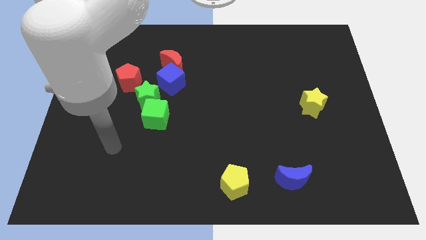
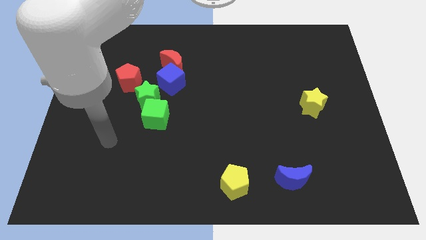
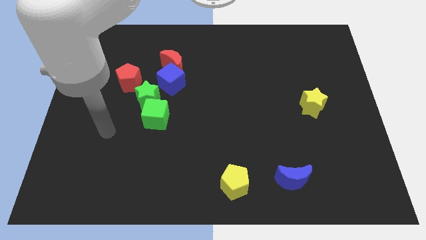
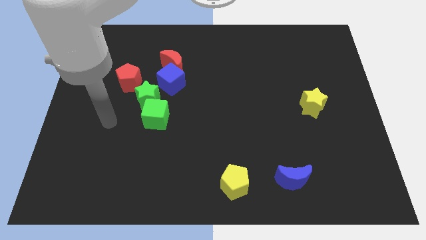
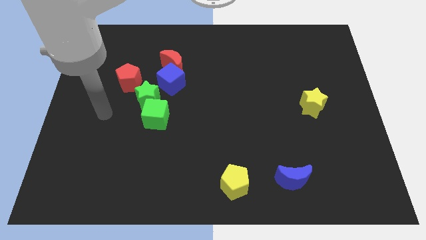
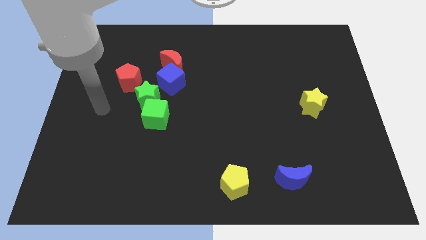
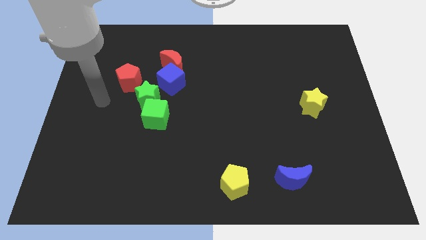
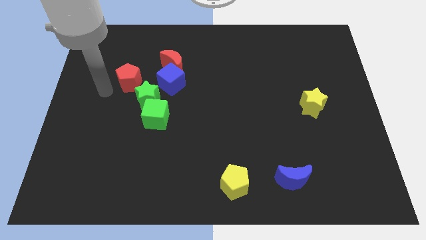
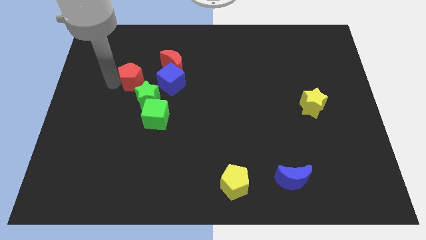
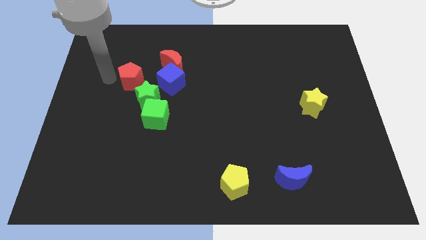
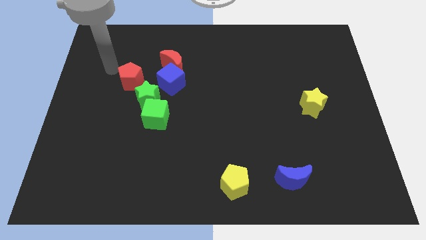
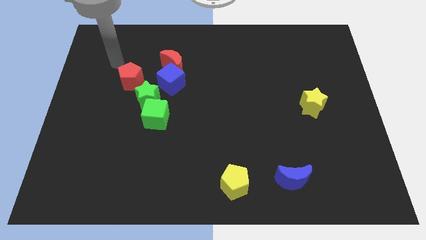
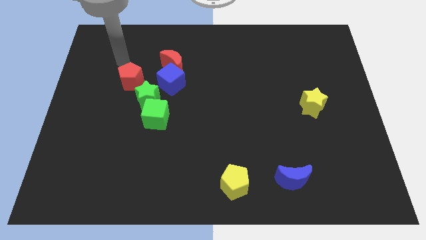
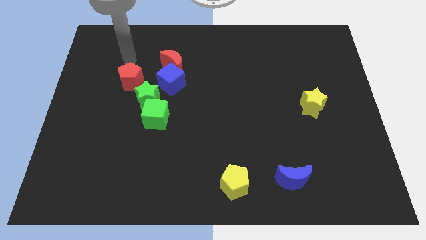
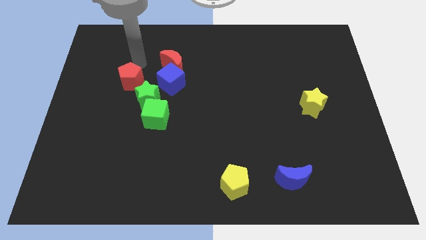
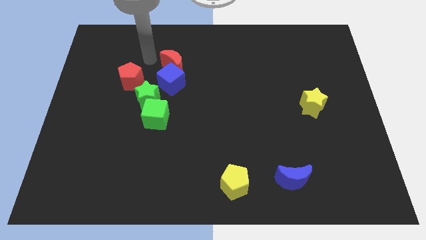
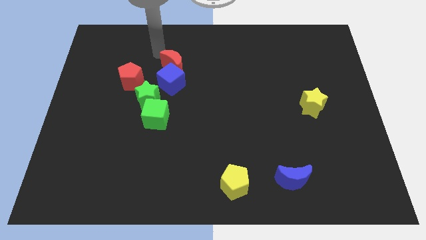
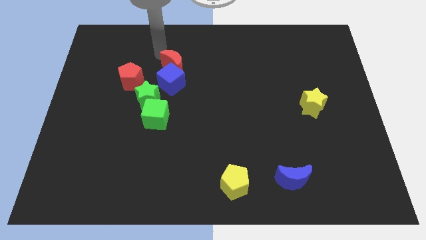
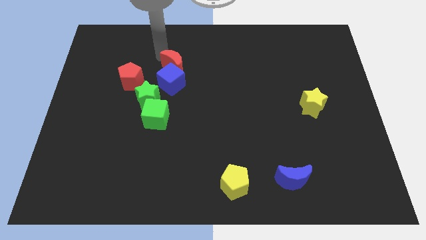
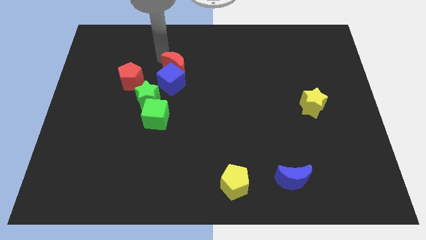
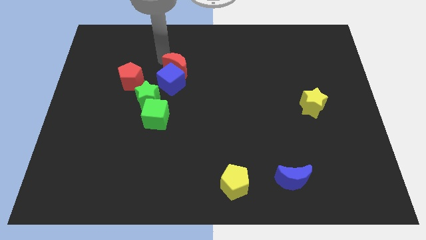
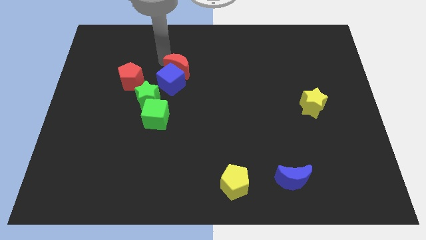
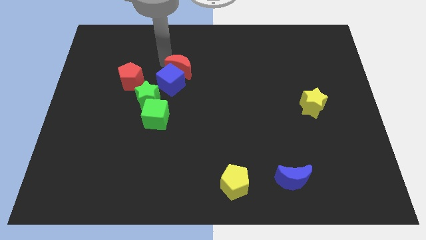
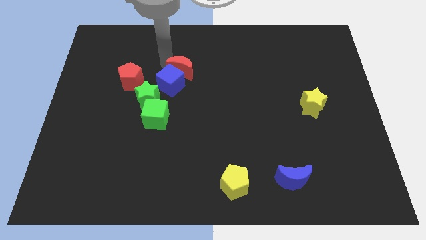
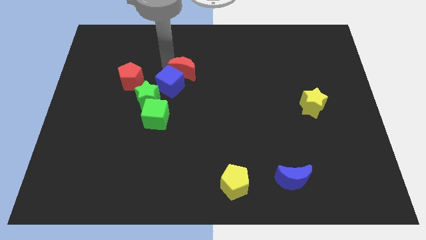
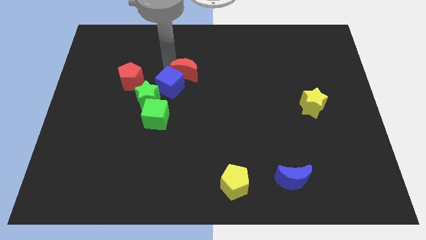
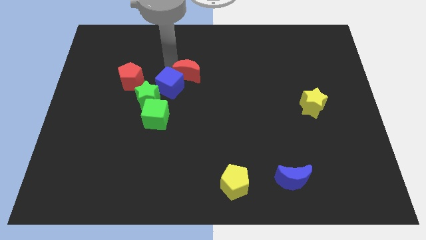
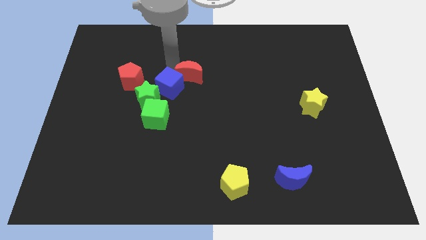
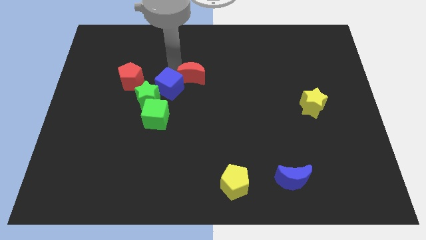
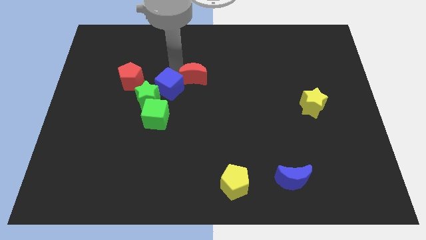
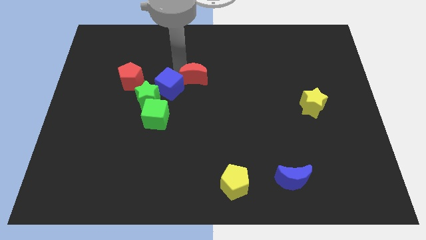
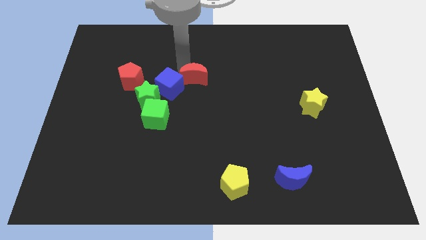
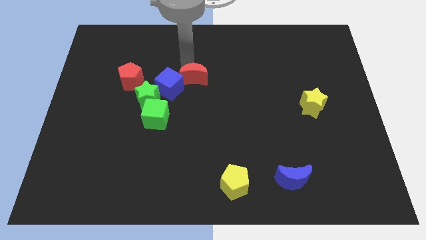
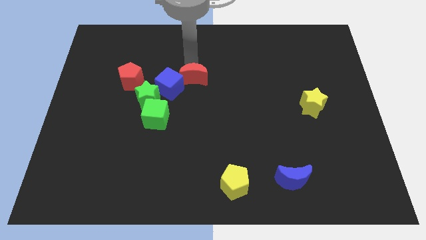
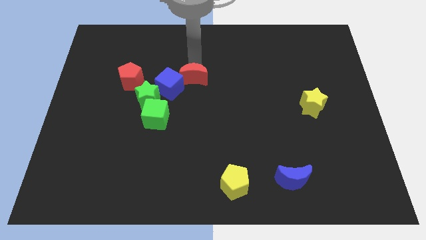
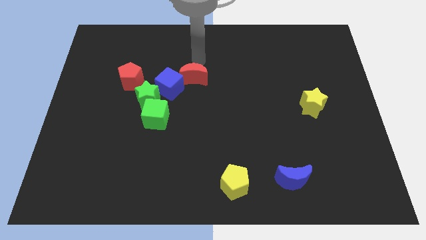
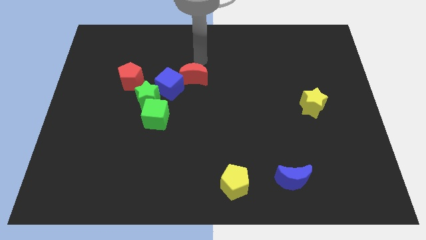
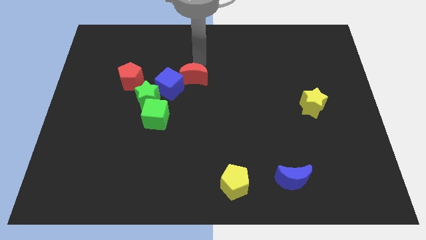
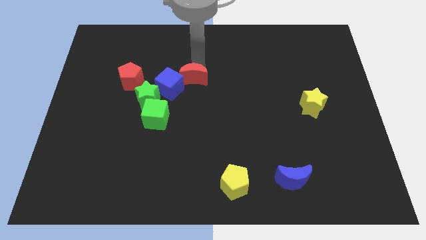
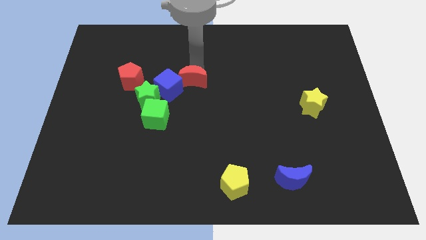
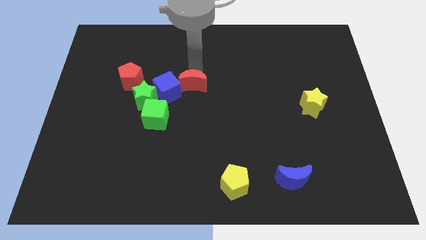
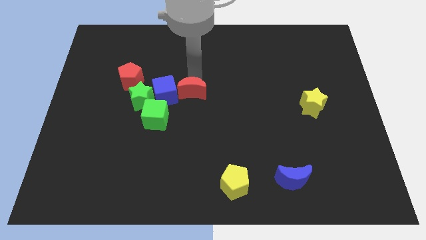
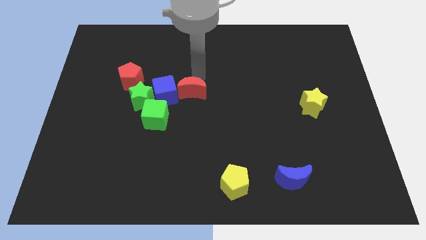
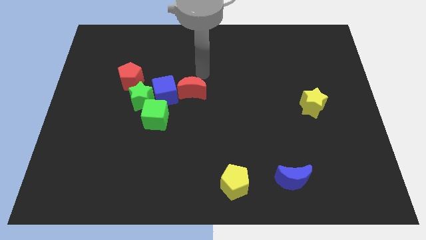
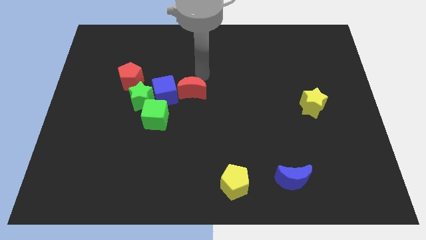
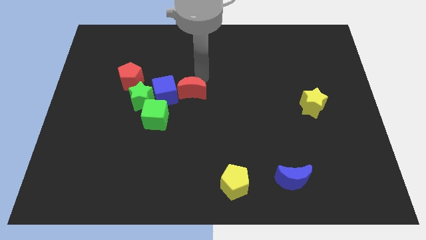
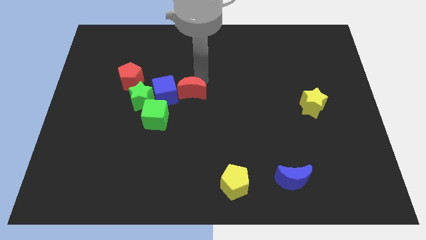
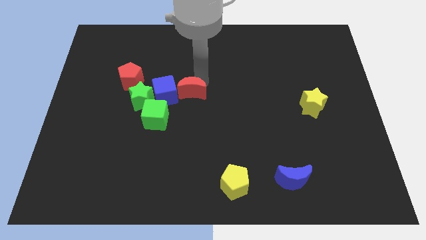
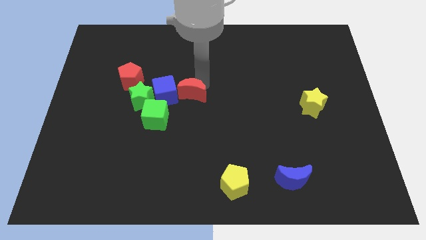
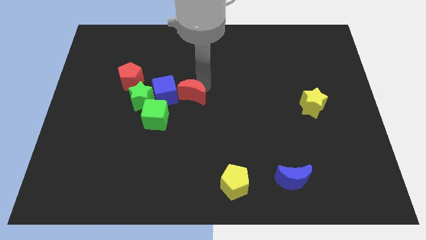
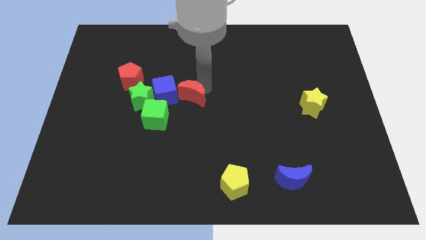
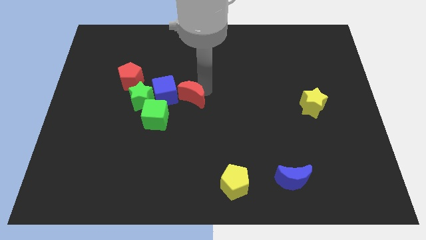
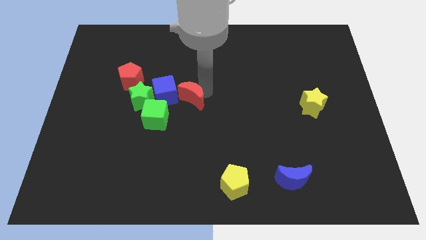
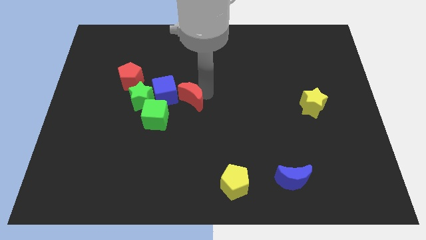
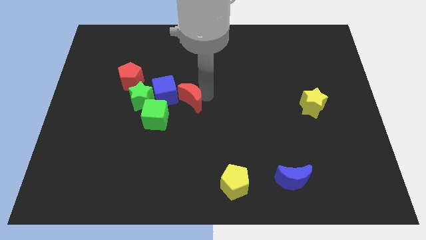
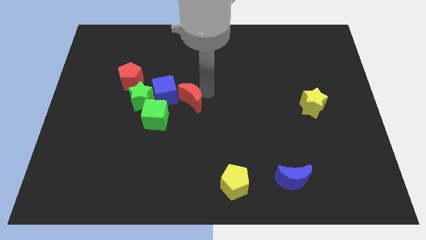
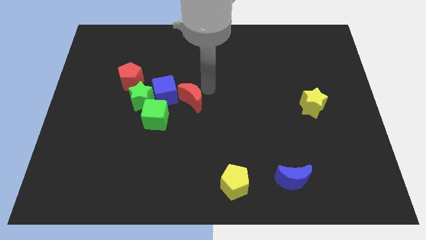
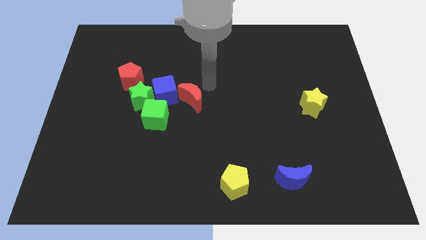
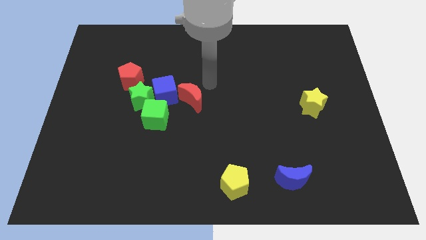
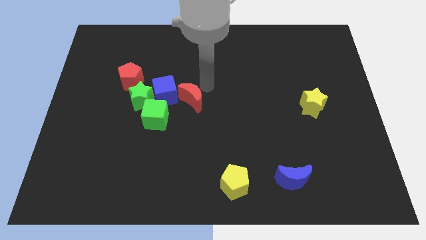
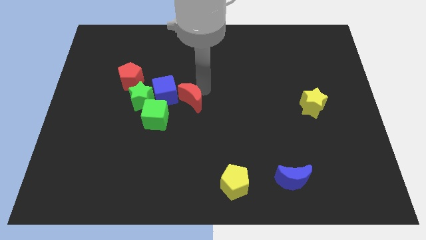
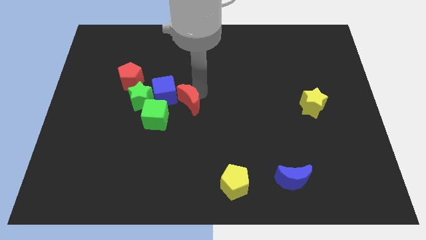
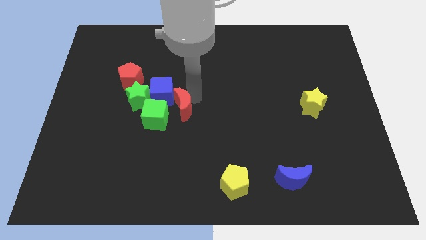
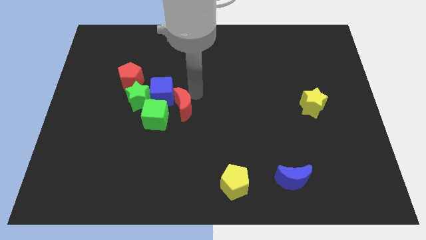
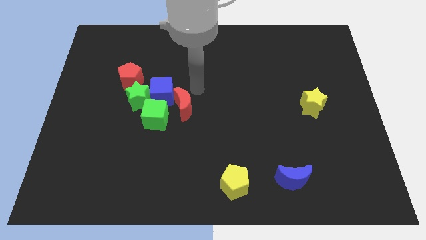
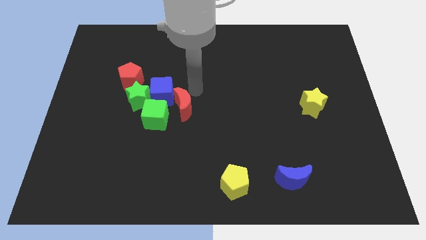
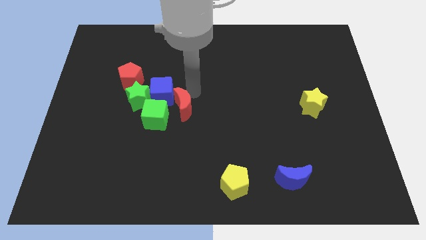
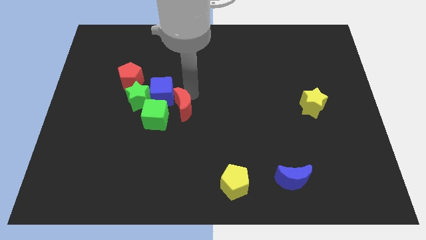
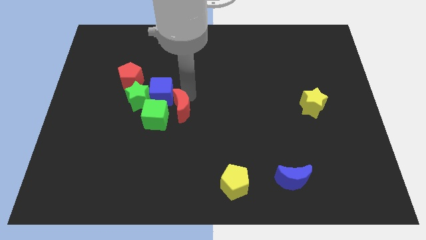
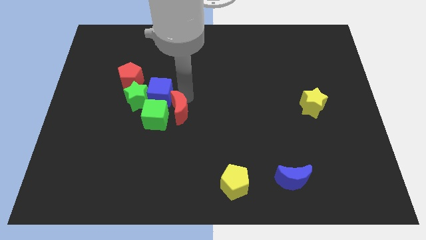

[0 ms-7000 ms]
put the red moon to the bottom of the blue cube
